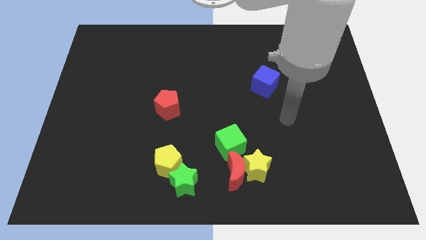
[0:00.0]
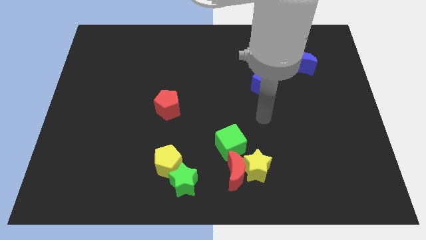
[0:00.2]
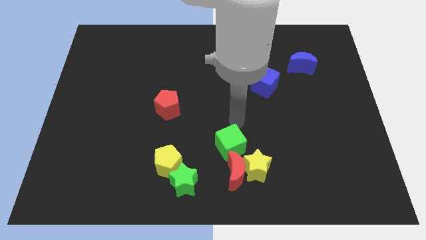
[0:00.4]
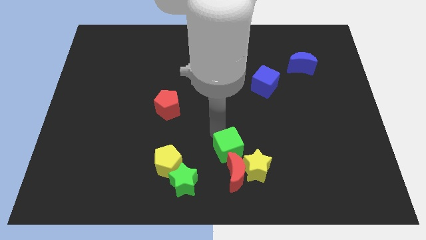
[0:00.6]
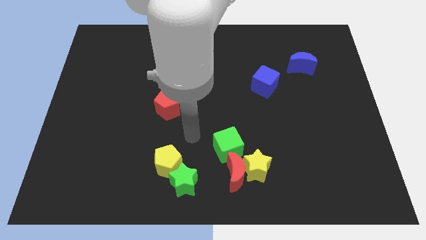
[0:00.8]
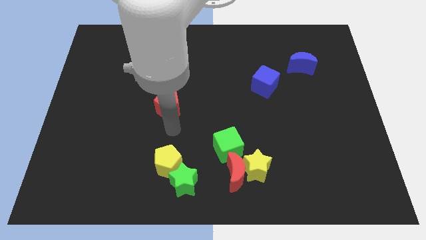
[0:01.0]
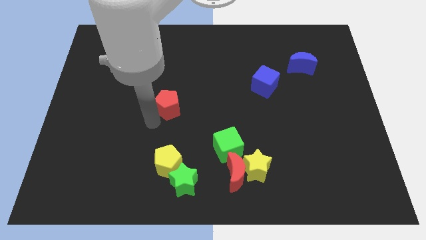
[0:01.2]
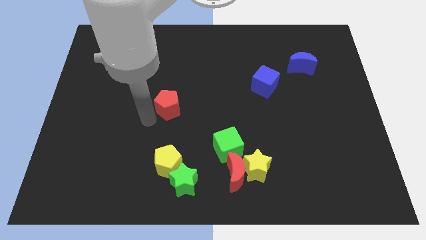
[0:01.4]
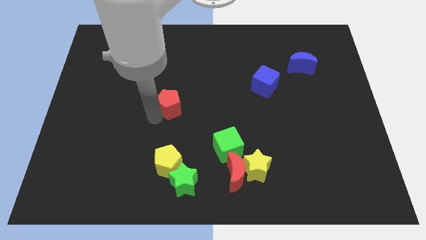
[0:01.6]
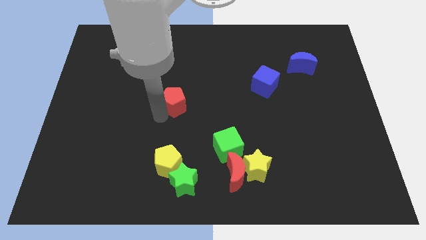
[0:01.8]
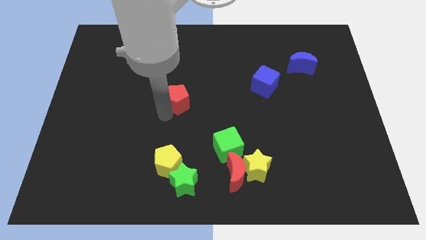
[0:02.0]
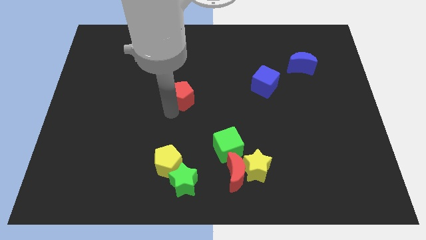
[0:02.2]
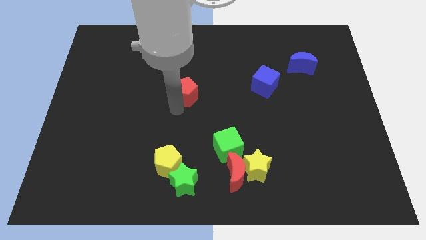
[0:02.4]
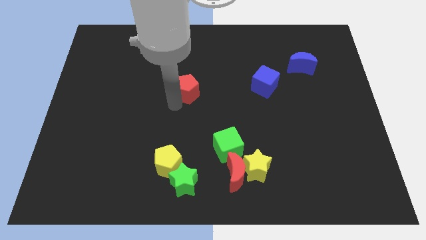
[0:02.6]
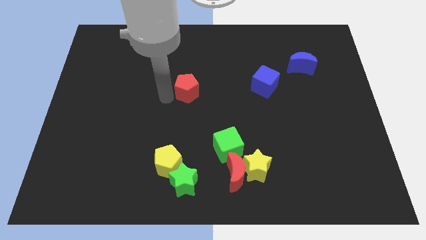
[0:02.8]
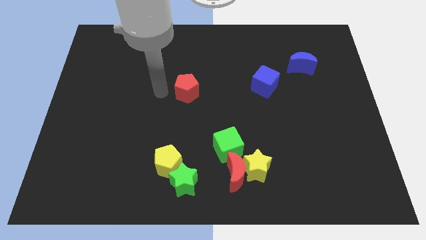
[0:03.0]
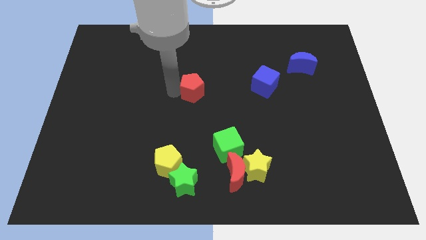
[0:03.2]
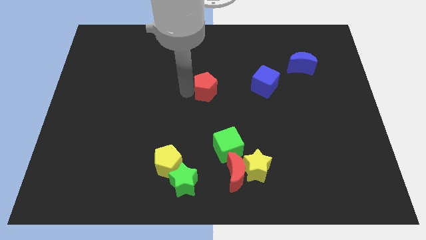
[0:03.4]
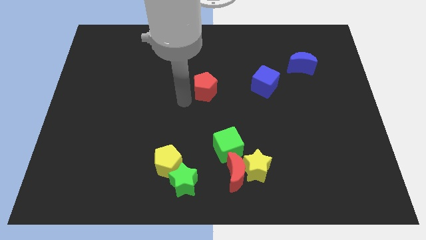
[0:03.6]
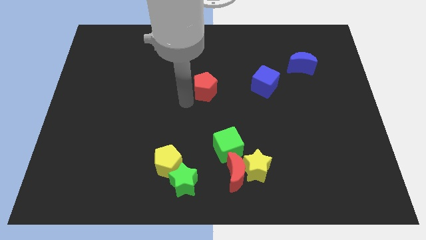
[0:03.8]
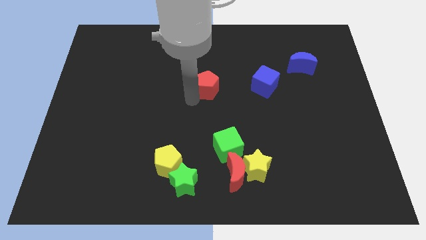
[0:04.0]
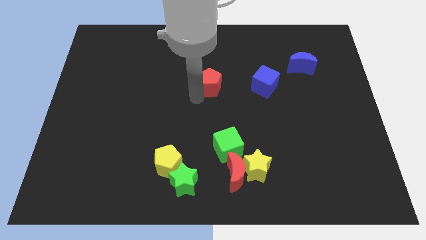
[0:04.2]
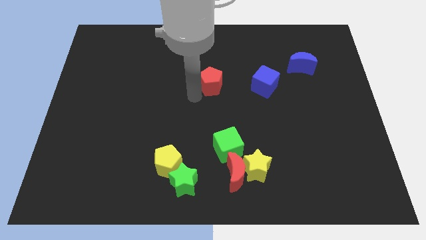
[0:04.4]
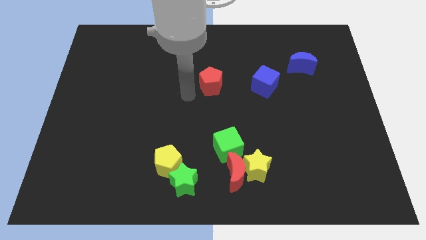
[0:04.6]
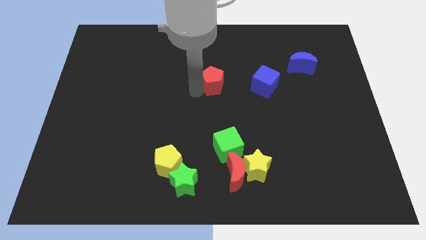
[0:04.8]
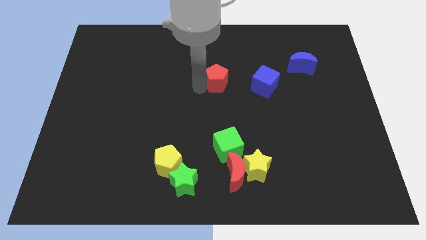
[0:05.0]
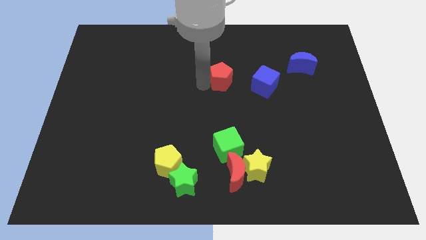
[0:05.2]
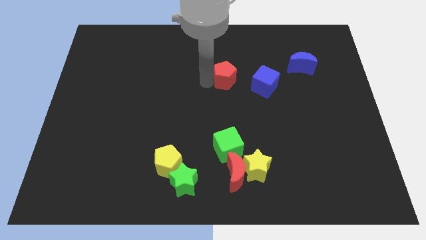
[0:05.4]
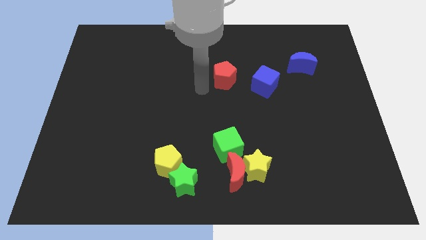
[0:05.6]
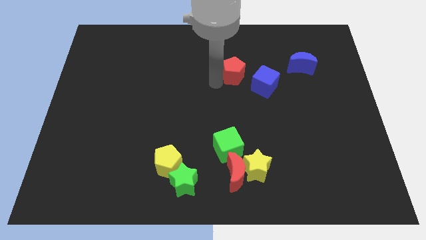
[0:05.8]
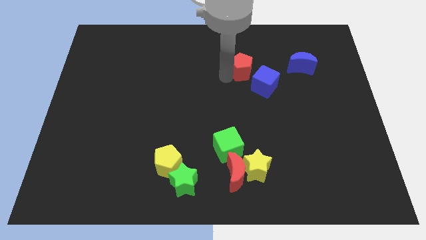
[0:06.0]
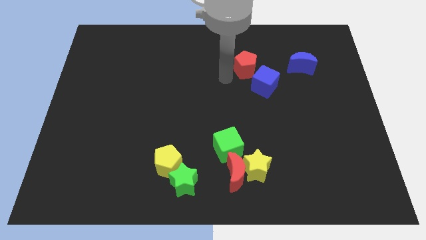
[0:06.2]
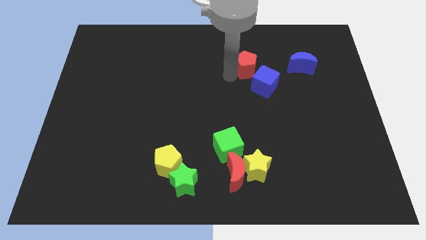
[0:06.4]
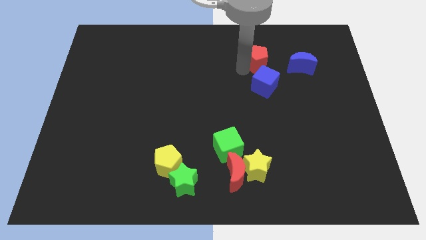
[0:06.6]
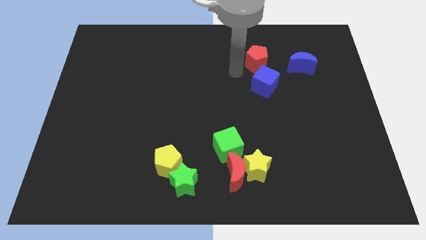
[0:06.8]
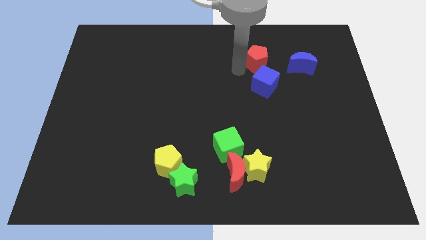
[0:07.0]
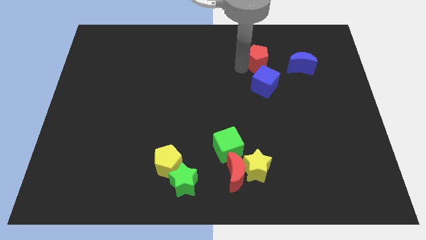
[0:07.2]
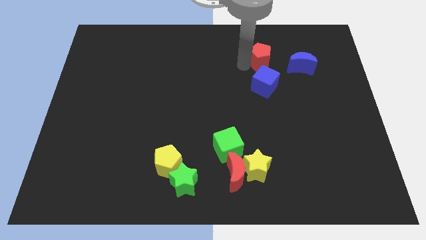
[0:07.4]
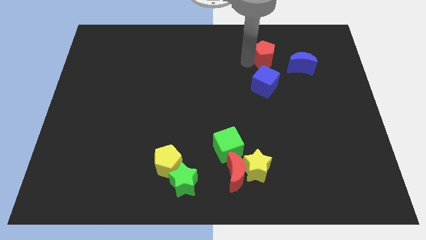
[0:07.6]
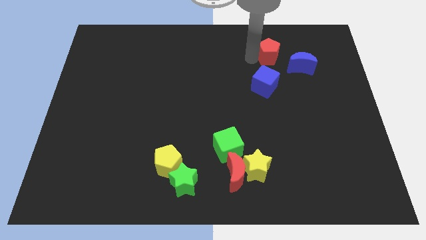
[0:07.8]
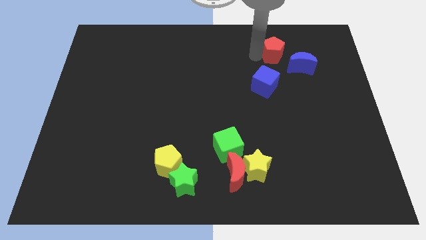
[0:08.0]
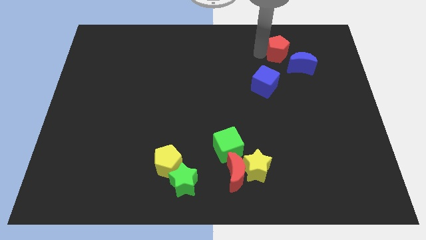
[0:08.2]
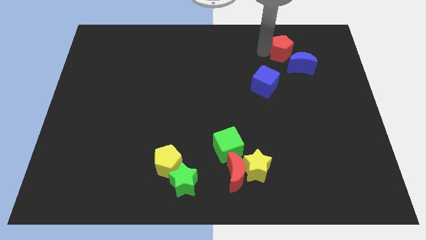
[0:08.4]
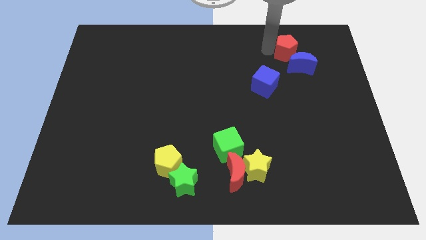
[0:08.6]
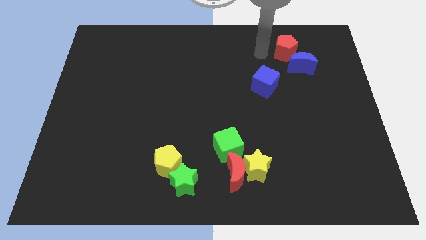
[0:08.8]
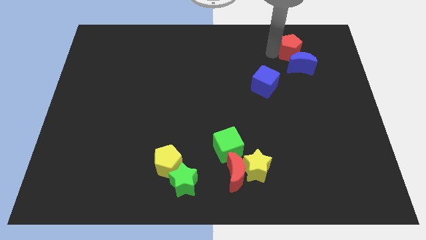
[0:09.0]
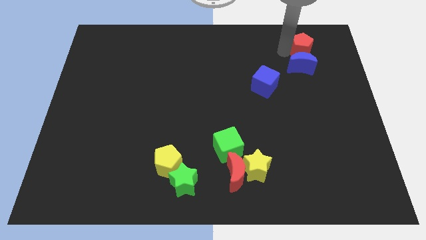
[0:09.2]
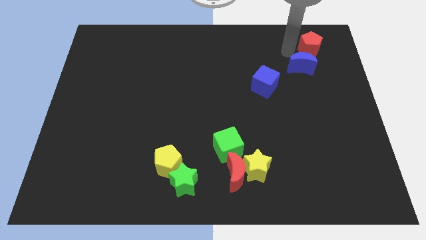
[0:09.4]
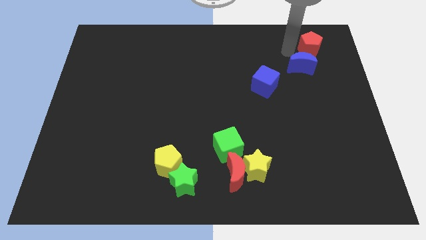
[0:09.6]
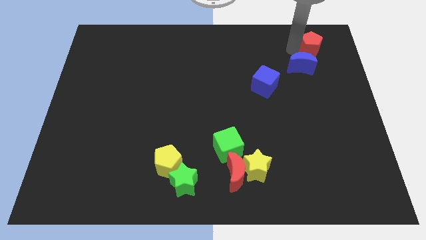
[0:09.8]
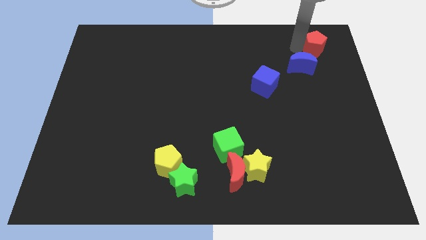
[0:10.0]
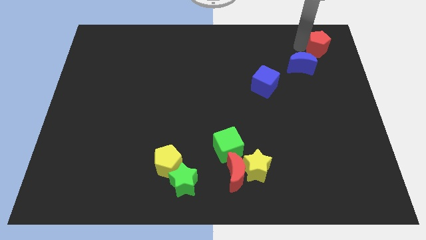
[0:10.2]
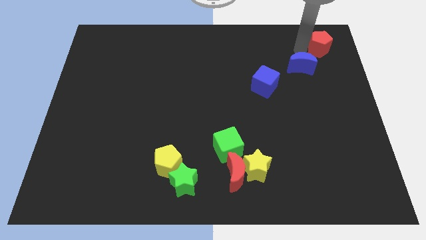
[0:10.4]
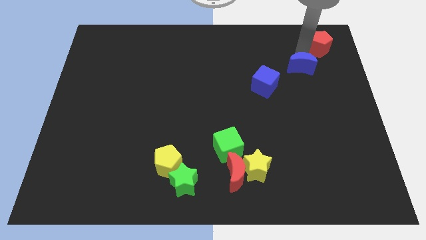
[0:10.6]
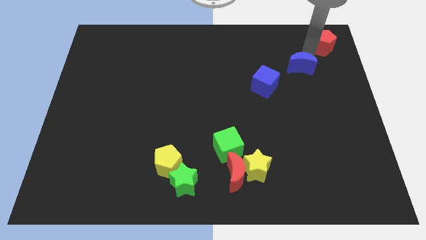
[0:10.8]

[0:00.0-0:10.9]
slide the red pentagon to the top right corner

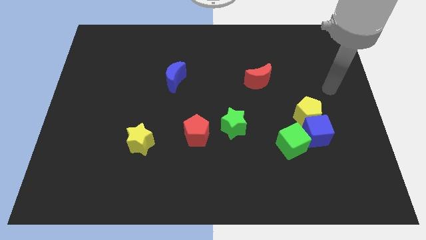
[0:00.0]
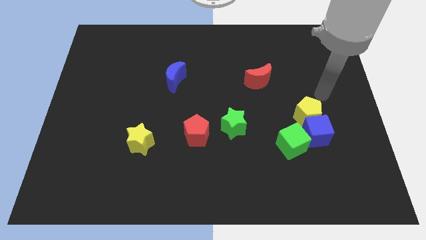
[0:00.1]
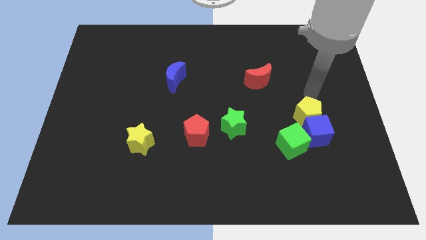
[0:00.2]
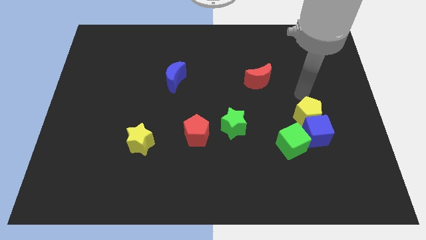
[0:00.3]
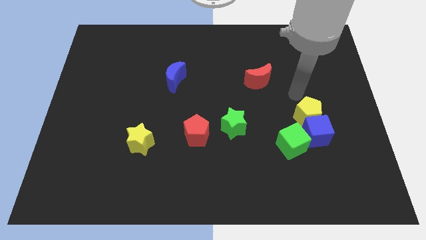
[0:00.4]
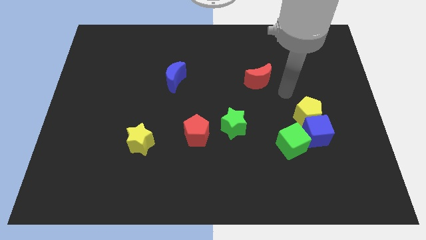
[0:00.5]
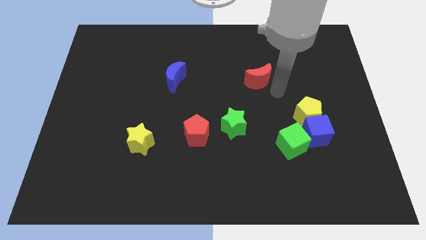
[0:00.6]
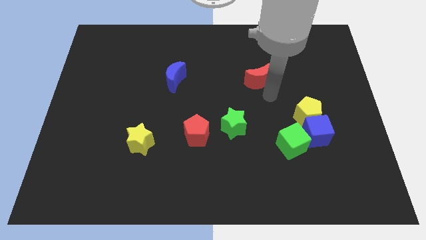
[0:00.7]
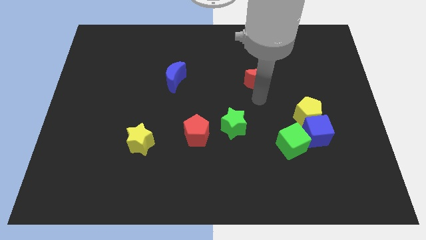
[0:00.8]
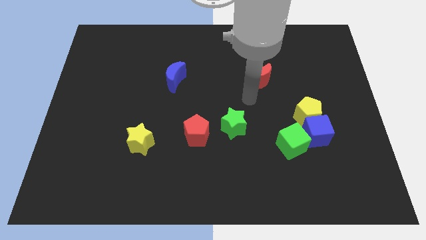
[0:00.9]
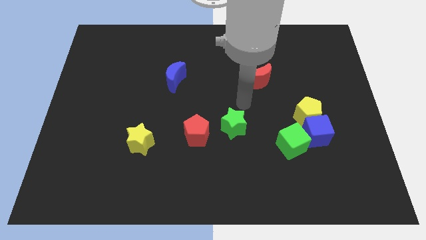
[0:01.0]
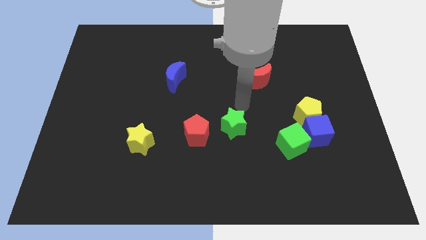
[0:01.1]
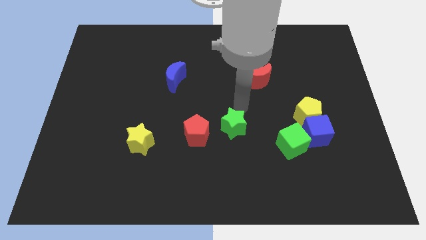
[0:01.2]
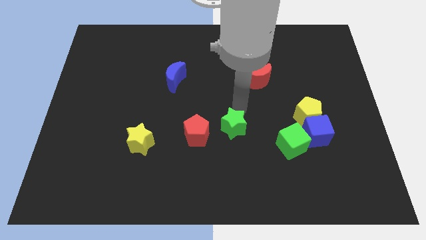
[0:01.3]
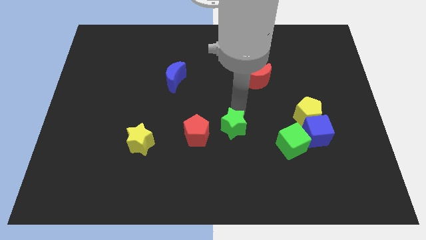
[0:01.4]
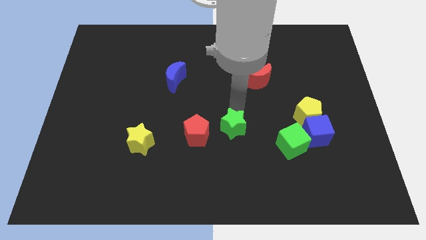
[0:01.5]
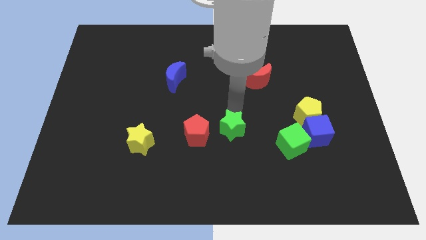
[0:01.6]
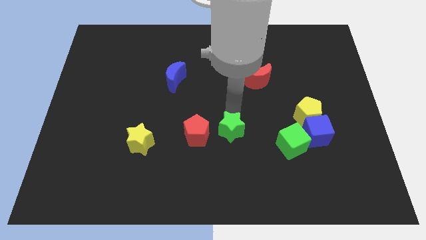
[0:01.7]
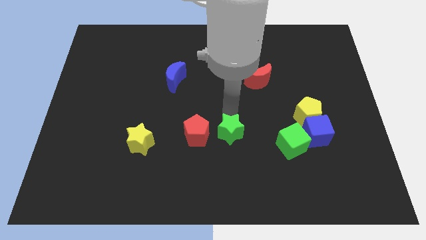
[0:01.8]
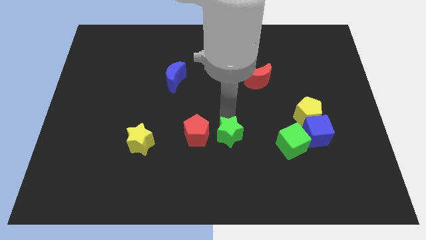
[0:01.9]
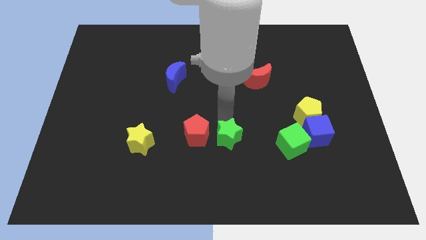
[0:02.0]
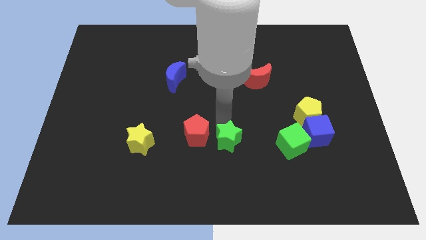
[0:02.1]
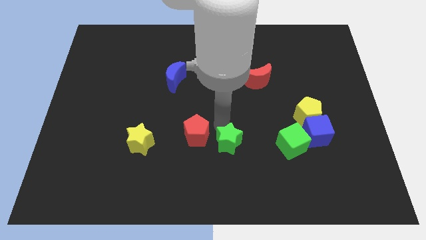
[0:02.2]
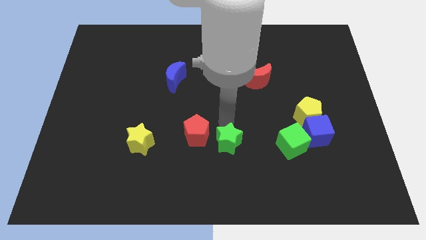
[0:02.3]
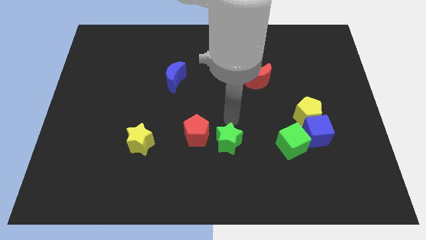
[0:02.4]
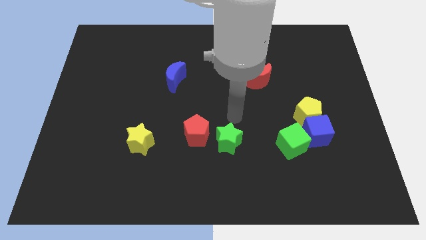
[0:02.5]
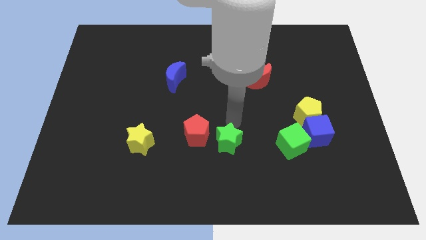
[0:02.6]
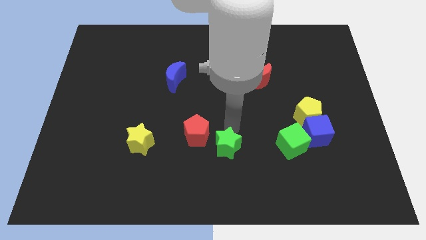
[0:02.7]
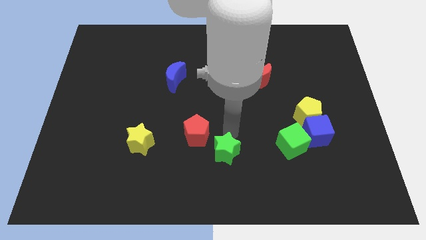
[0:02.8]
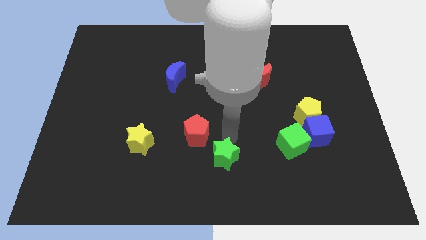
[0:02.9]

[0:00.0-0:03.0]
put the green star to the bottom
